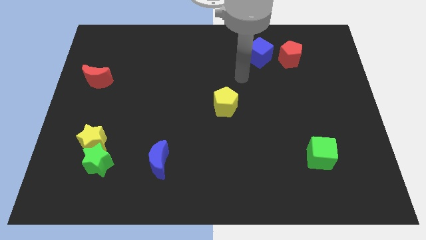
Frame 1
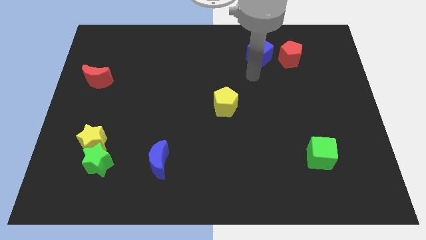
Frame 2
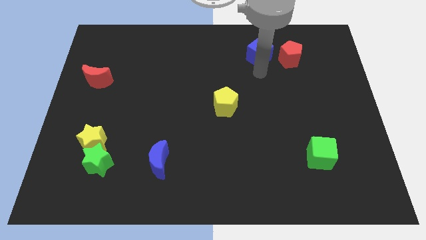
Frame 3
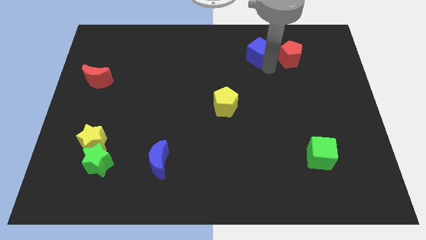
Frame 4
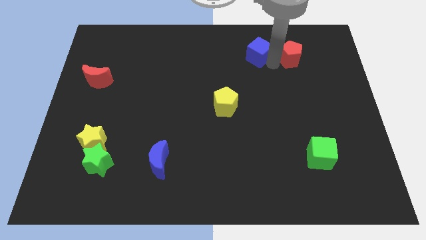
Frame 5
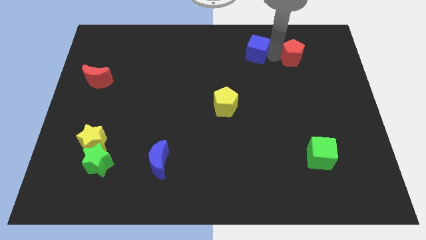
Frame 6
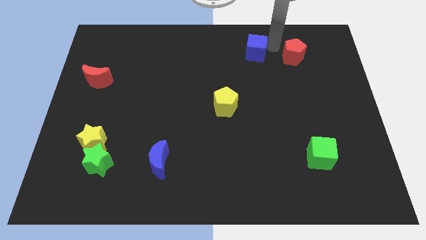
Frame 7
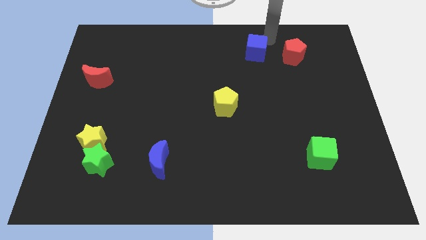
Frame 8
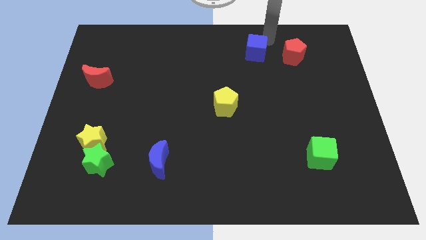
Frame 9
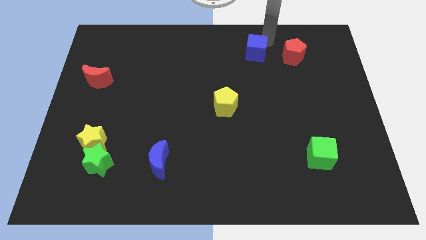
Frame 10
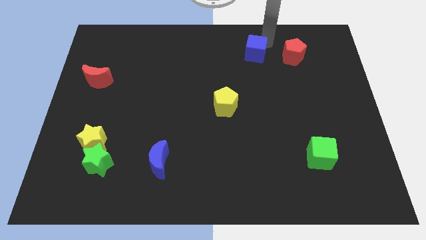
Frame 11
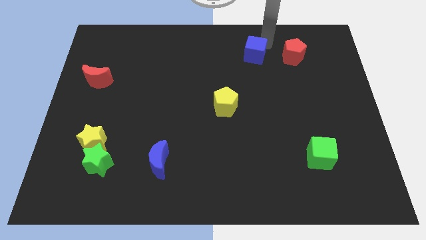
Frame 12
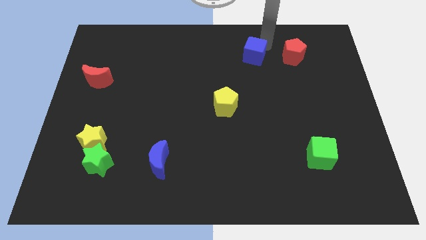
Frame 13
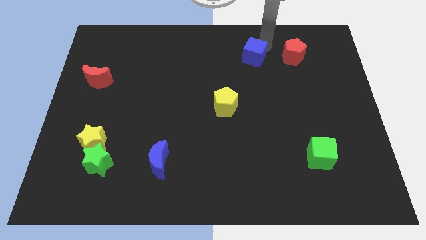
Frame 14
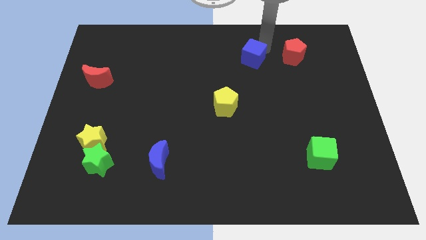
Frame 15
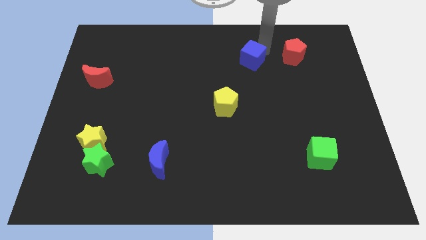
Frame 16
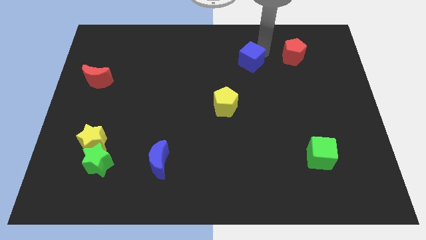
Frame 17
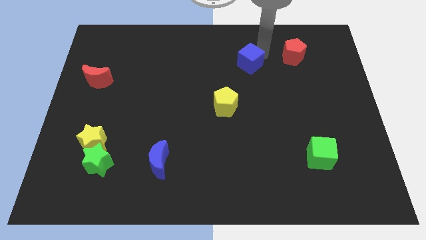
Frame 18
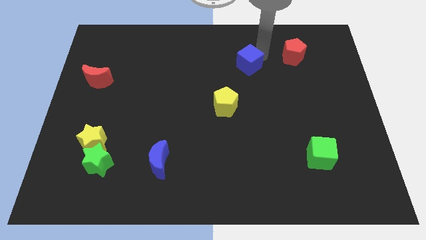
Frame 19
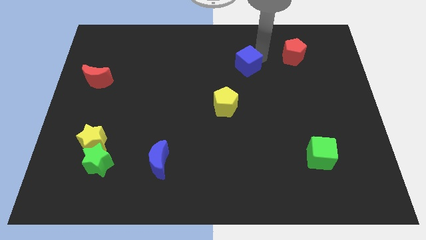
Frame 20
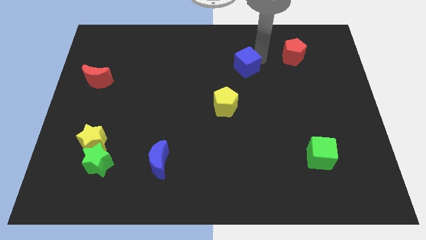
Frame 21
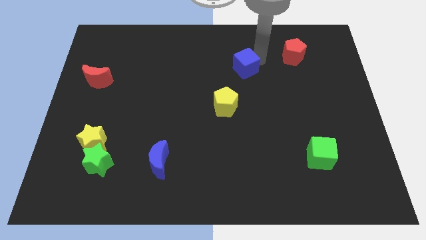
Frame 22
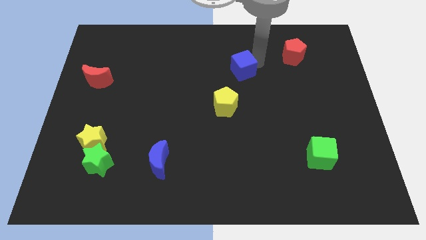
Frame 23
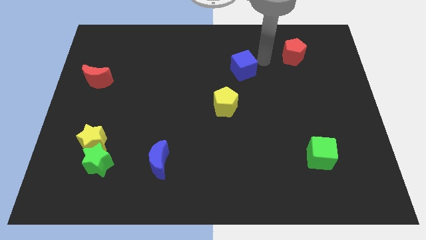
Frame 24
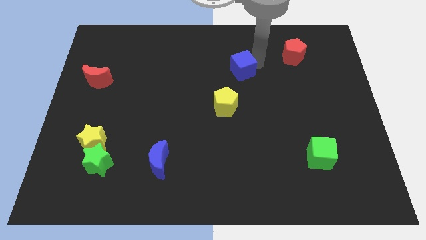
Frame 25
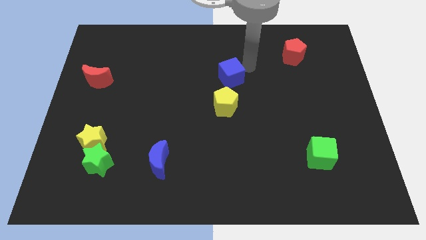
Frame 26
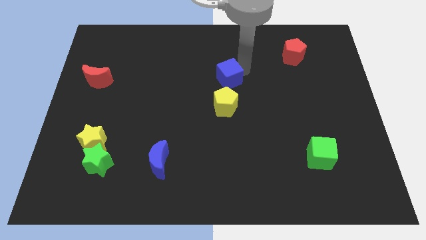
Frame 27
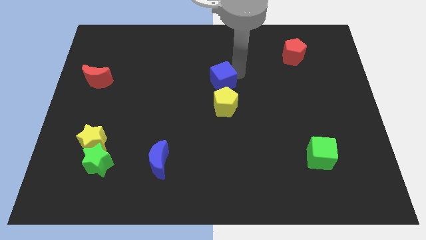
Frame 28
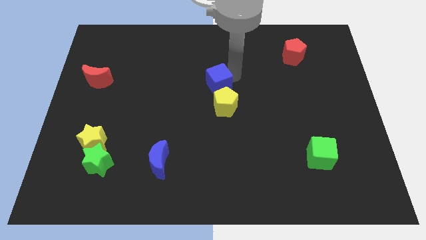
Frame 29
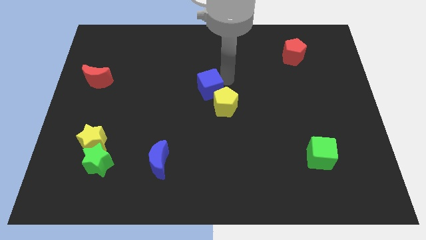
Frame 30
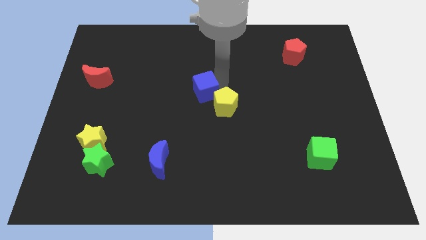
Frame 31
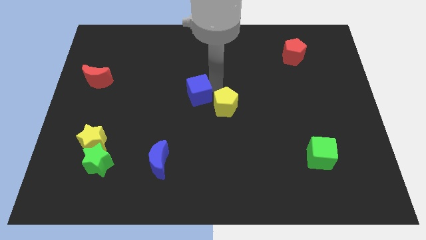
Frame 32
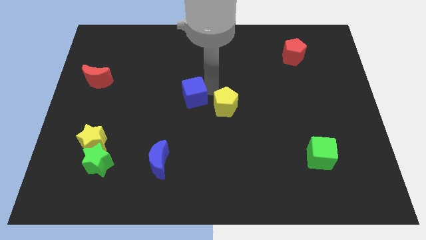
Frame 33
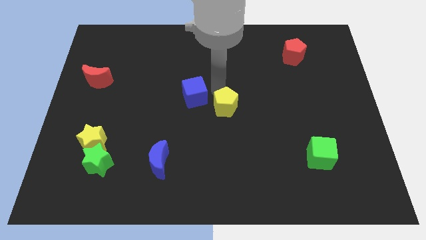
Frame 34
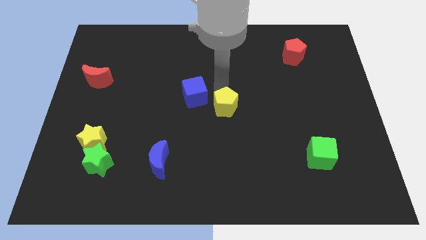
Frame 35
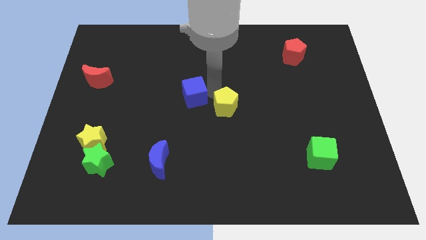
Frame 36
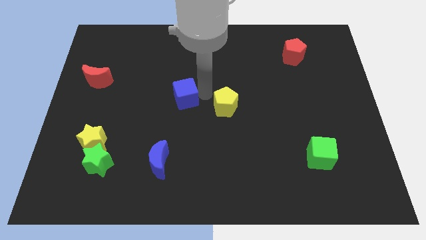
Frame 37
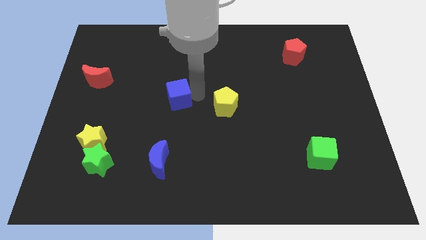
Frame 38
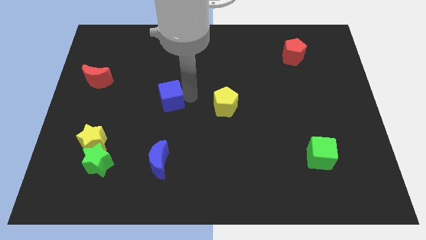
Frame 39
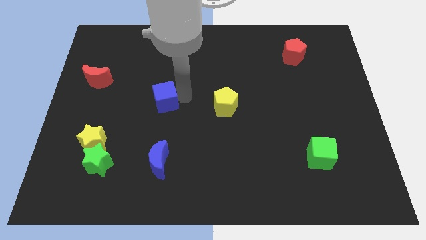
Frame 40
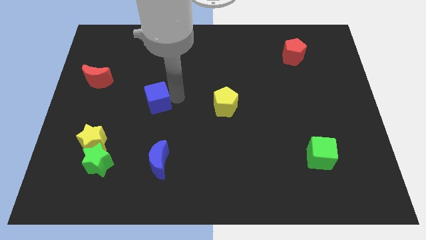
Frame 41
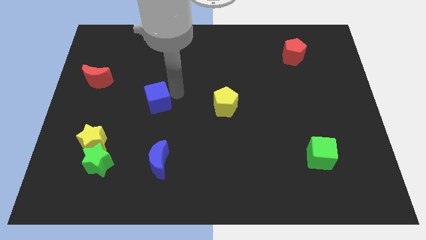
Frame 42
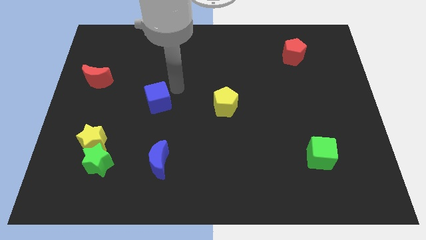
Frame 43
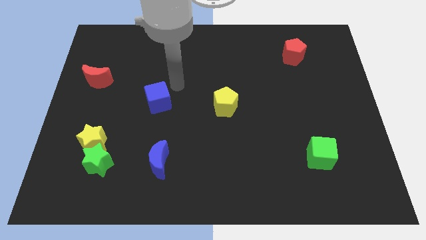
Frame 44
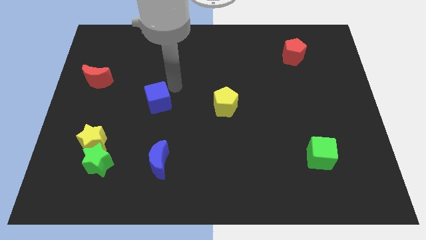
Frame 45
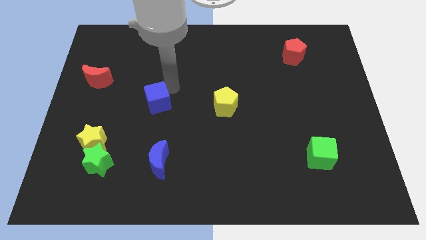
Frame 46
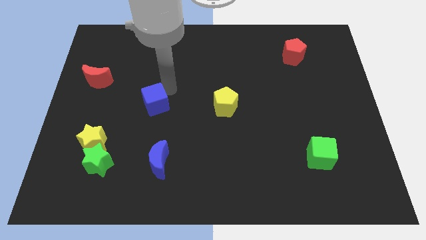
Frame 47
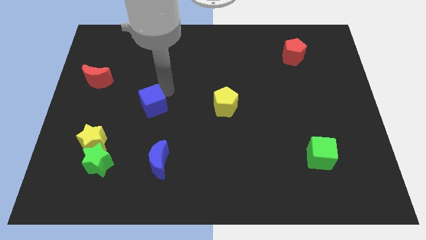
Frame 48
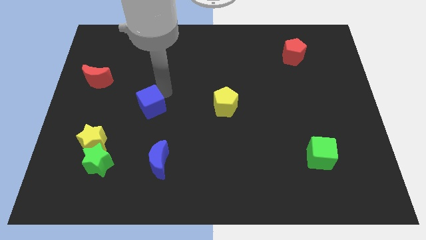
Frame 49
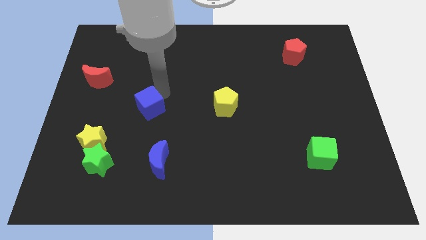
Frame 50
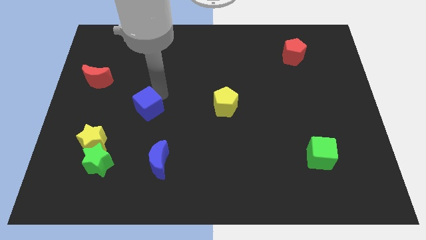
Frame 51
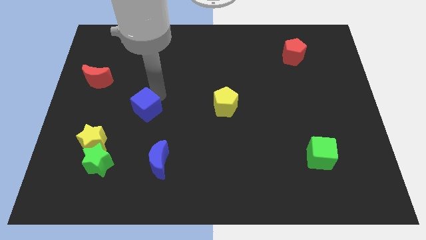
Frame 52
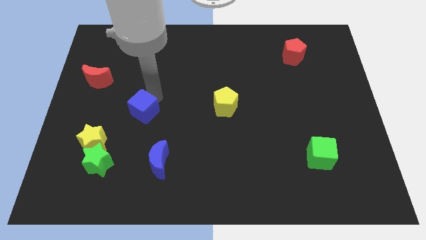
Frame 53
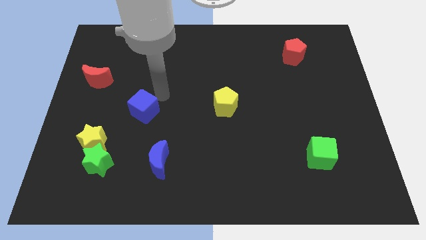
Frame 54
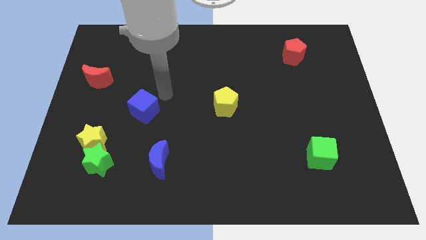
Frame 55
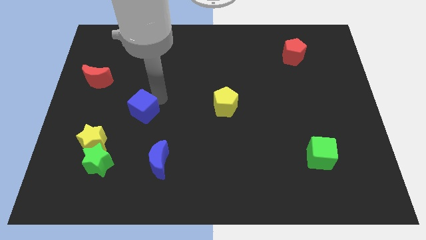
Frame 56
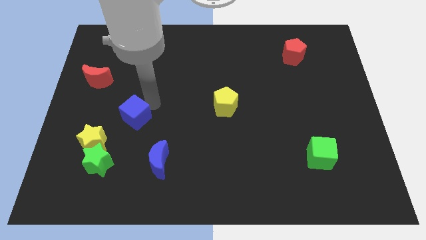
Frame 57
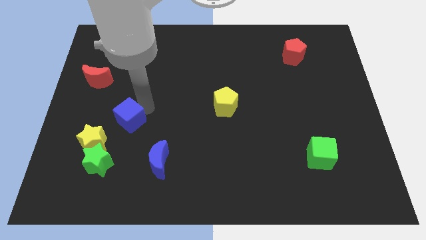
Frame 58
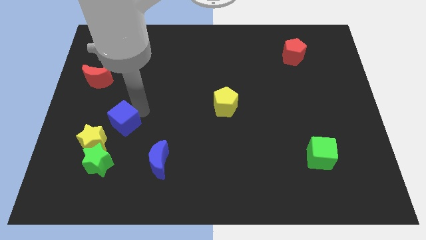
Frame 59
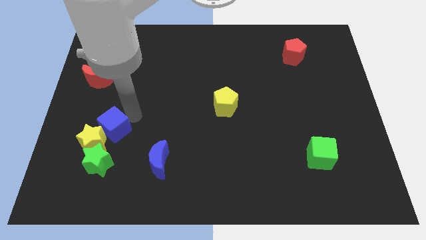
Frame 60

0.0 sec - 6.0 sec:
slide the blue cube close to the yellow star

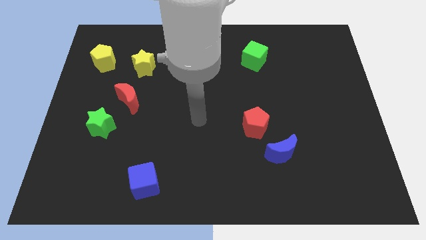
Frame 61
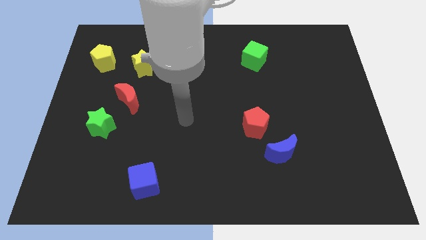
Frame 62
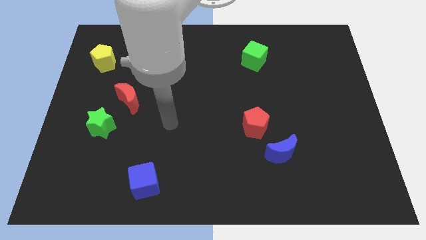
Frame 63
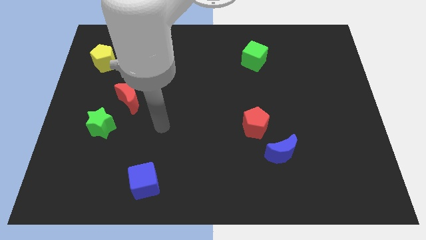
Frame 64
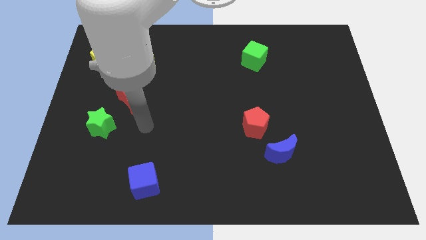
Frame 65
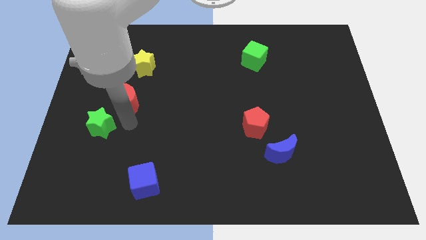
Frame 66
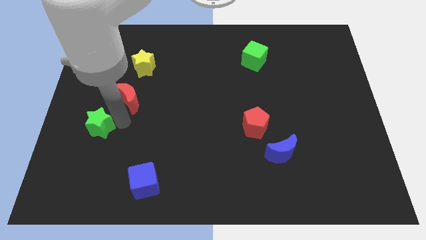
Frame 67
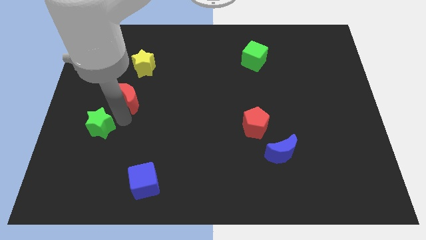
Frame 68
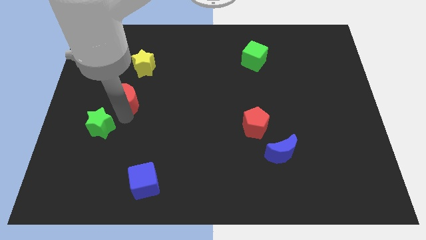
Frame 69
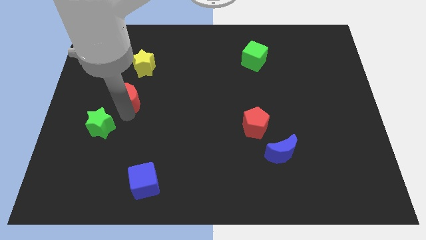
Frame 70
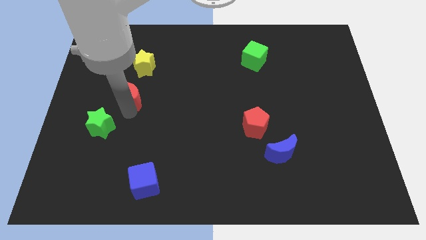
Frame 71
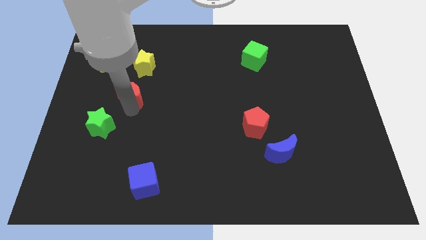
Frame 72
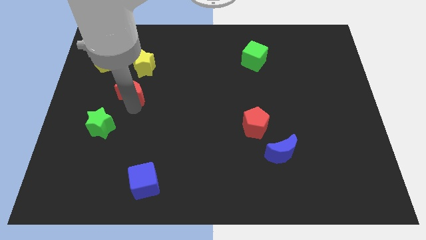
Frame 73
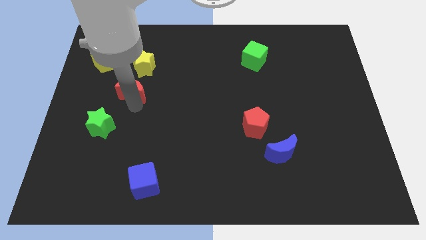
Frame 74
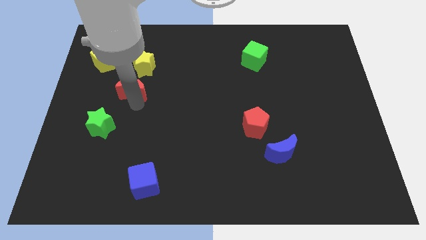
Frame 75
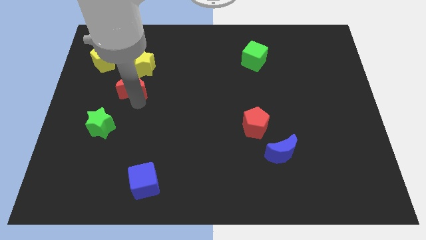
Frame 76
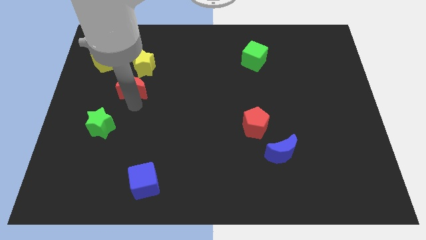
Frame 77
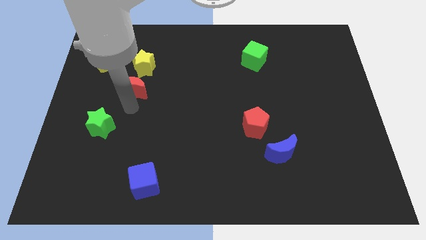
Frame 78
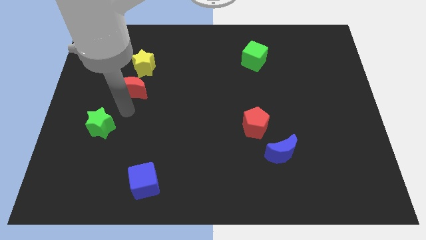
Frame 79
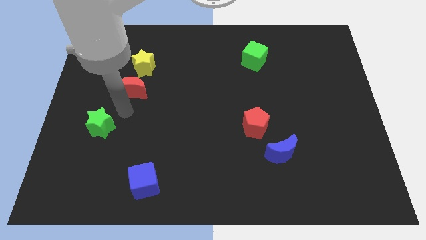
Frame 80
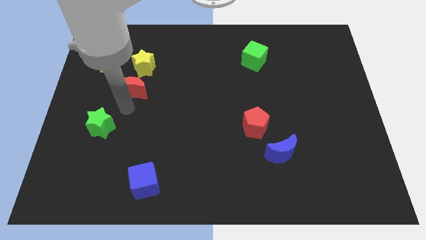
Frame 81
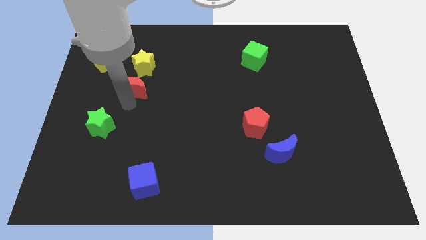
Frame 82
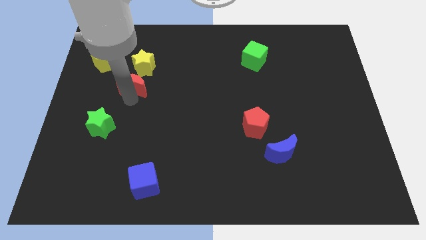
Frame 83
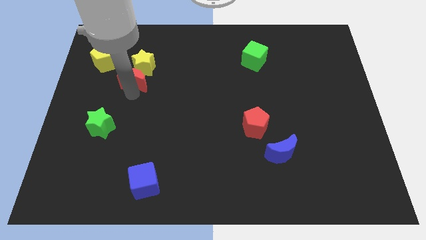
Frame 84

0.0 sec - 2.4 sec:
move the red moon close to the yellow star
